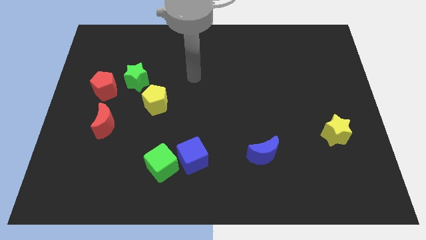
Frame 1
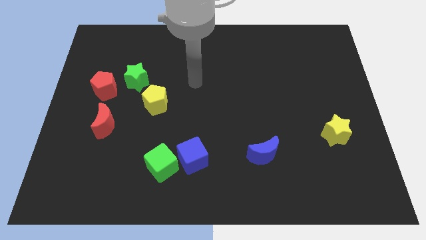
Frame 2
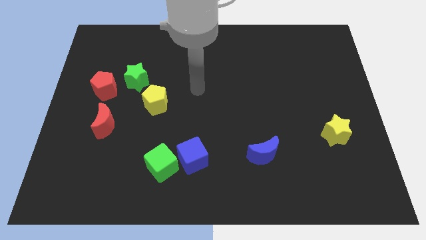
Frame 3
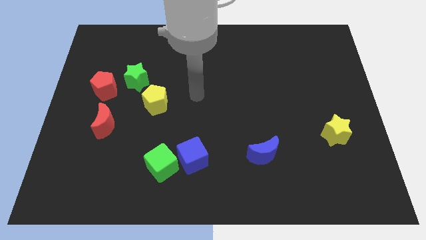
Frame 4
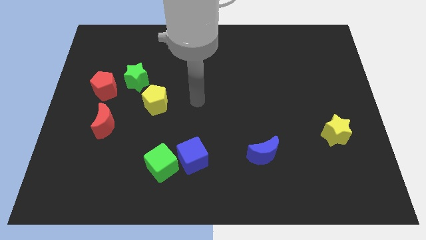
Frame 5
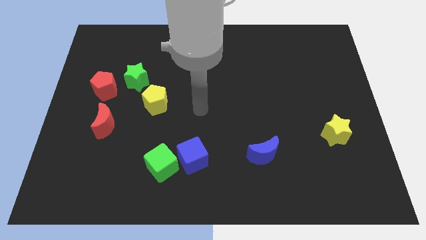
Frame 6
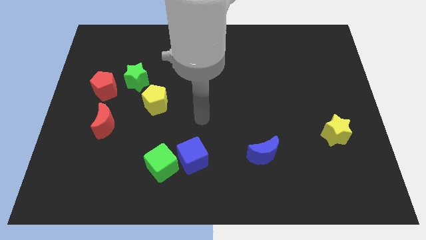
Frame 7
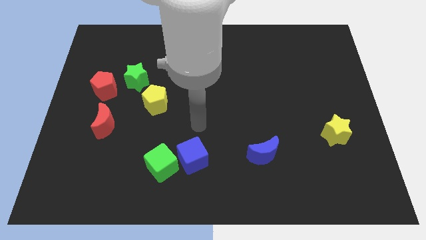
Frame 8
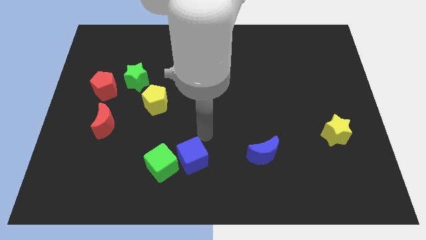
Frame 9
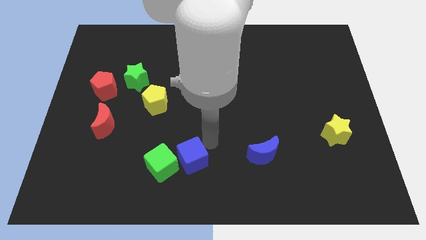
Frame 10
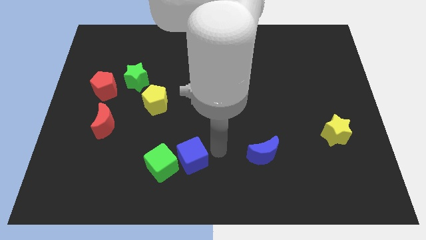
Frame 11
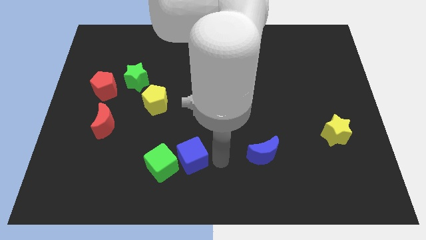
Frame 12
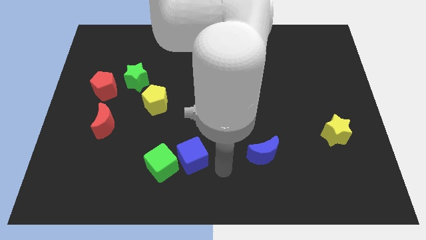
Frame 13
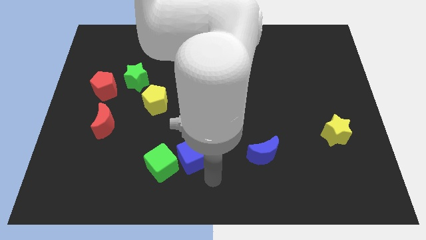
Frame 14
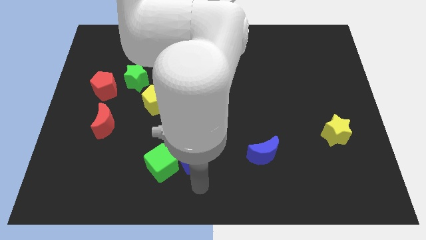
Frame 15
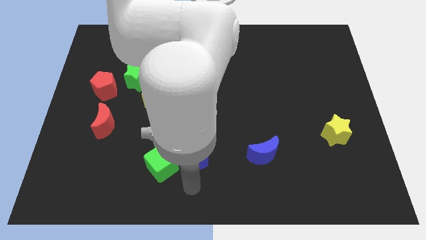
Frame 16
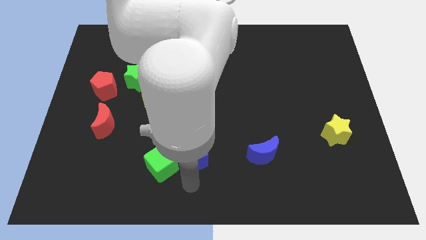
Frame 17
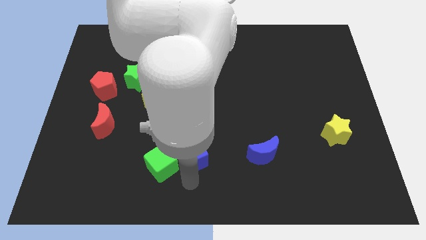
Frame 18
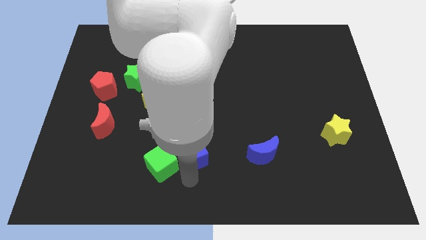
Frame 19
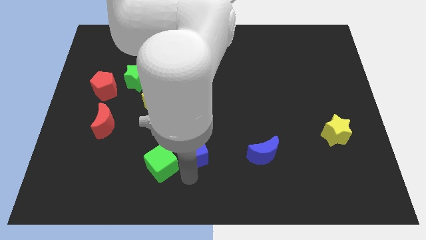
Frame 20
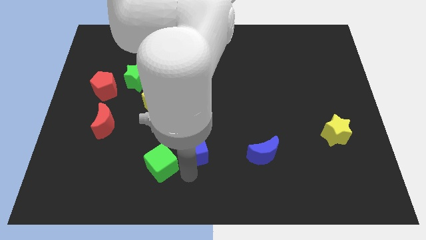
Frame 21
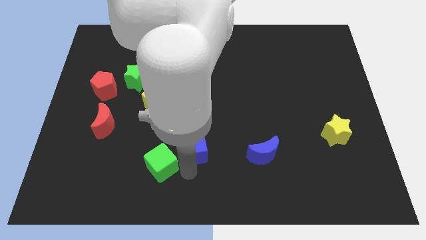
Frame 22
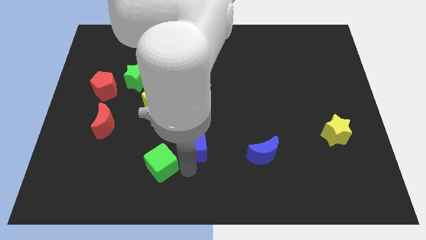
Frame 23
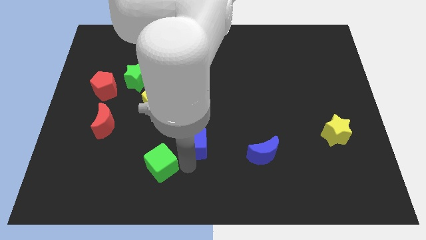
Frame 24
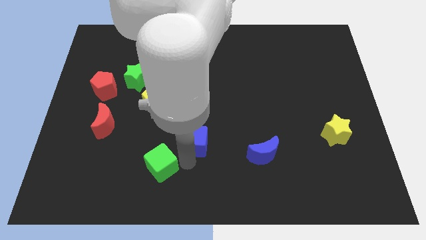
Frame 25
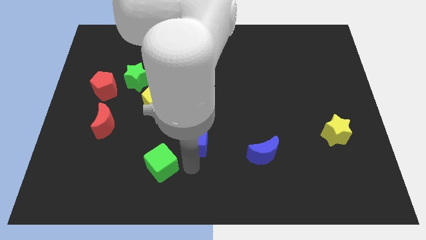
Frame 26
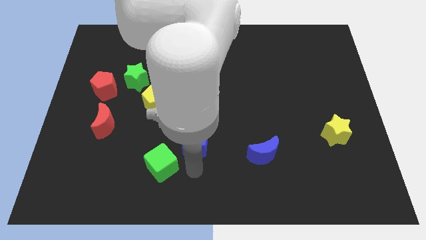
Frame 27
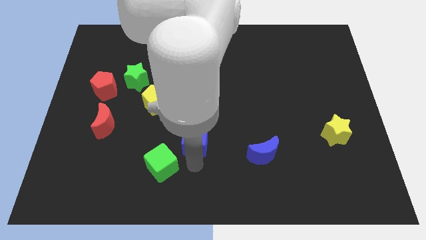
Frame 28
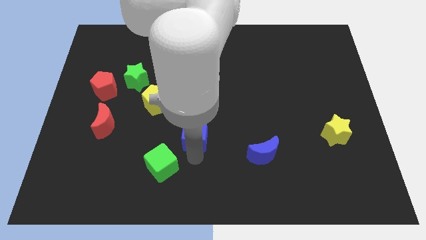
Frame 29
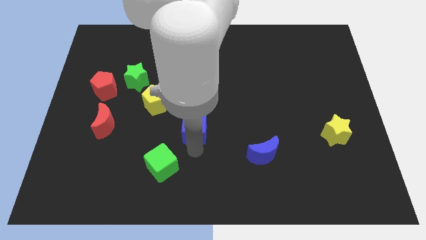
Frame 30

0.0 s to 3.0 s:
slightly push the blue cube up

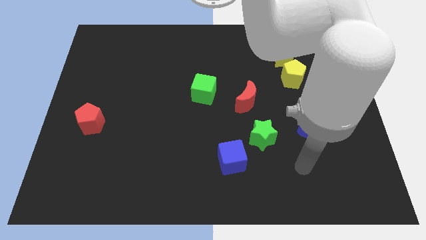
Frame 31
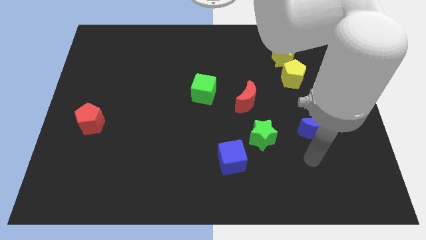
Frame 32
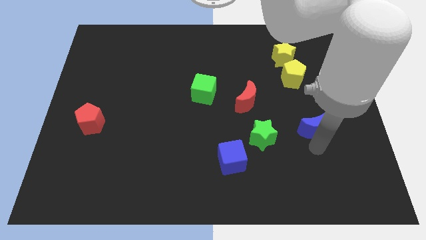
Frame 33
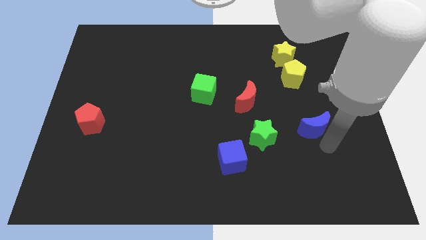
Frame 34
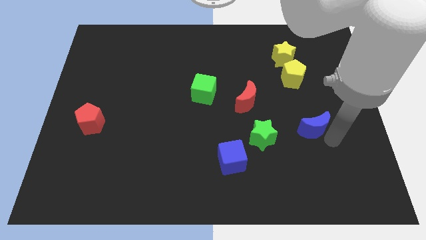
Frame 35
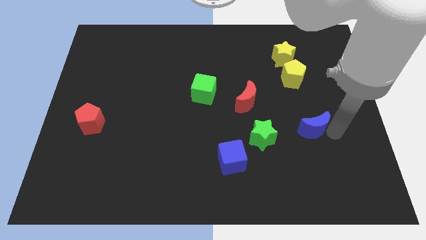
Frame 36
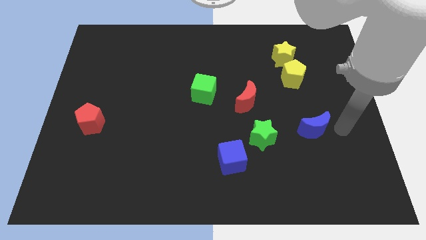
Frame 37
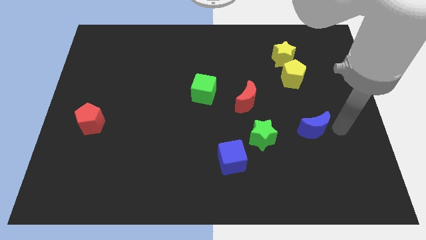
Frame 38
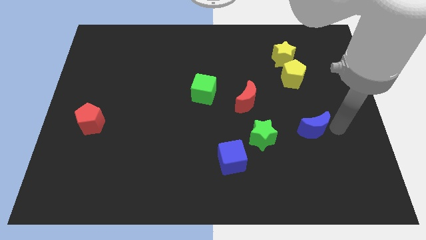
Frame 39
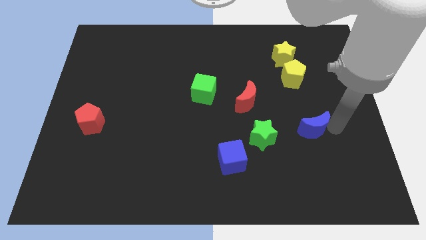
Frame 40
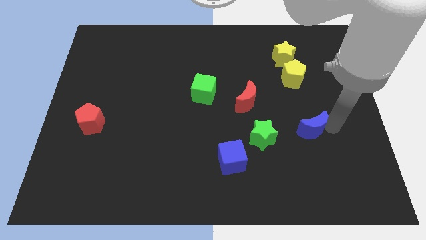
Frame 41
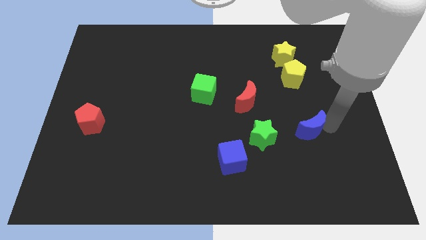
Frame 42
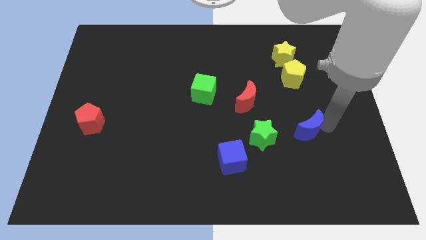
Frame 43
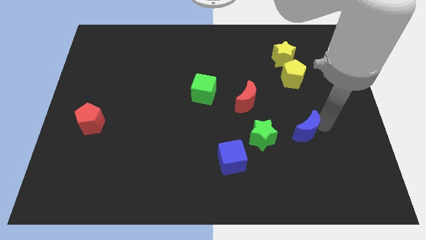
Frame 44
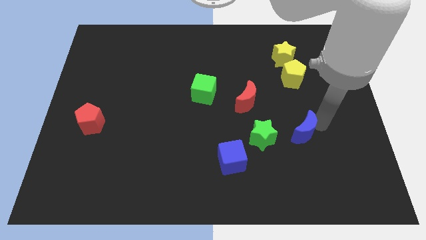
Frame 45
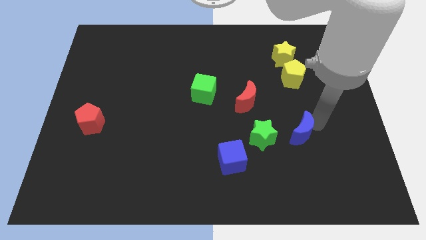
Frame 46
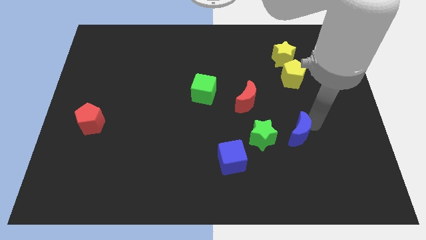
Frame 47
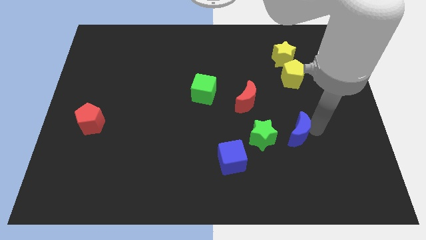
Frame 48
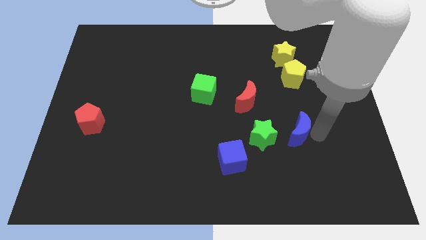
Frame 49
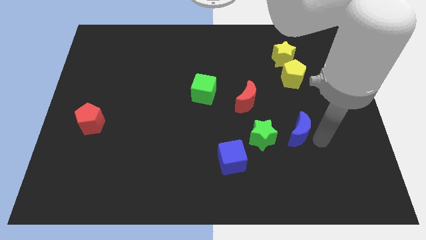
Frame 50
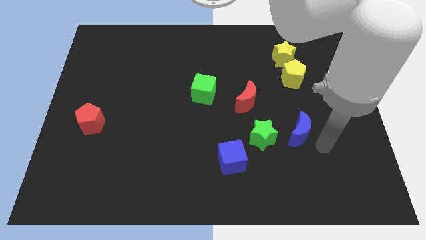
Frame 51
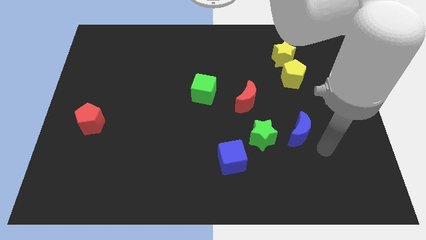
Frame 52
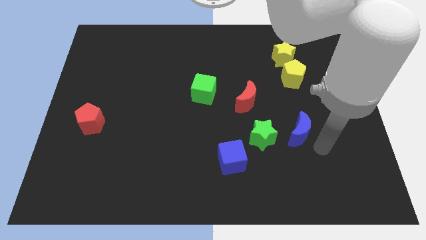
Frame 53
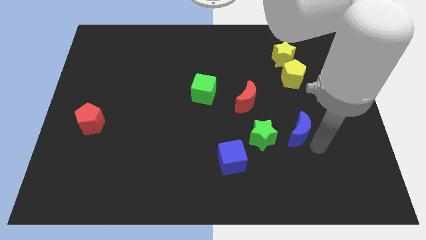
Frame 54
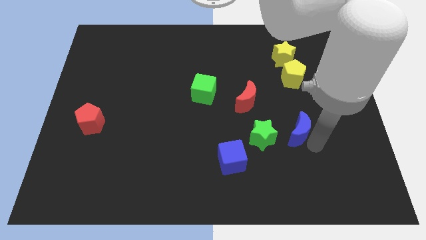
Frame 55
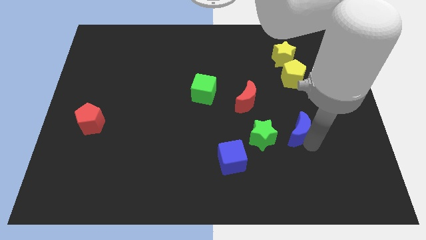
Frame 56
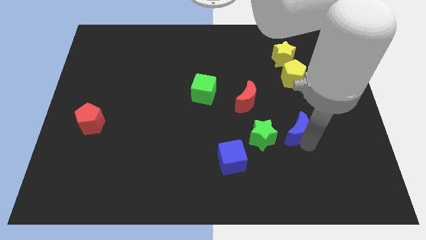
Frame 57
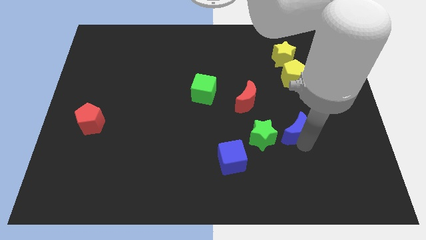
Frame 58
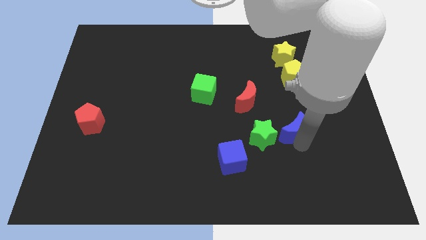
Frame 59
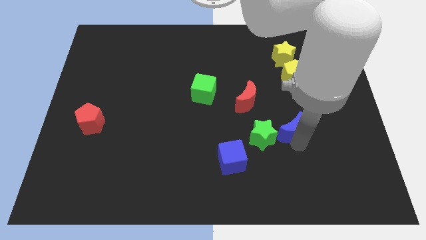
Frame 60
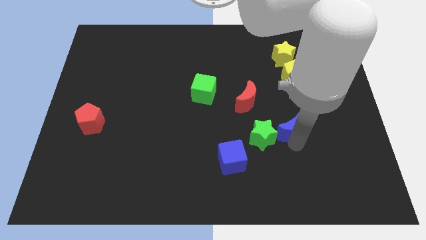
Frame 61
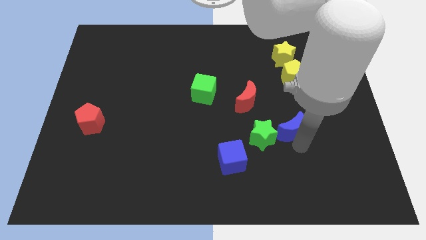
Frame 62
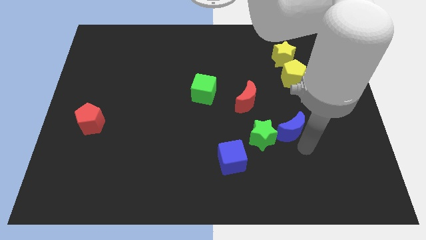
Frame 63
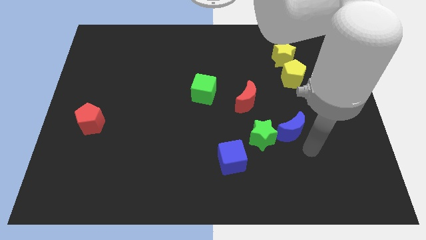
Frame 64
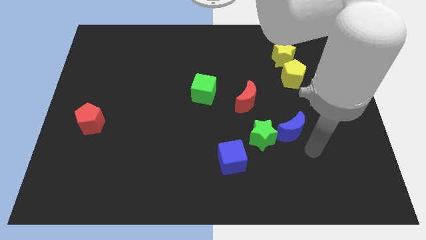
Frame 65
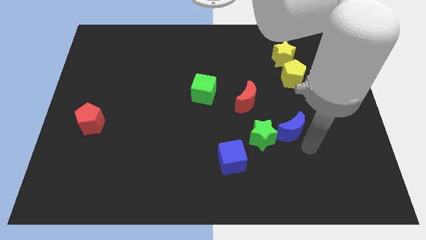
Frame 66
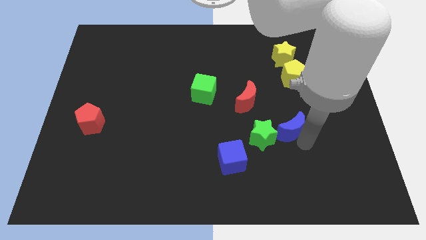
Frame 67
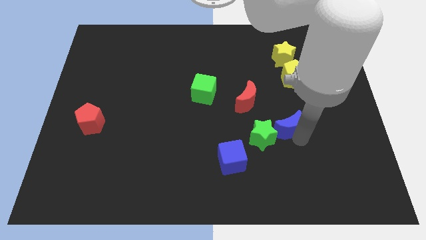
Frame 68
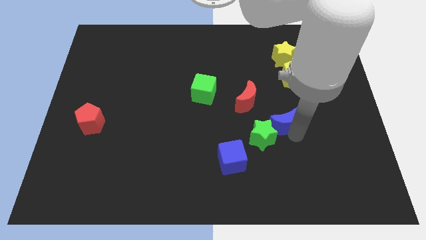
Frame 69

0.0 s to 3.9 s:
slide the blue moon left a bit

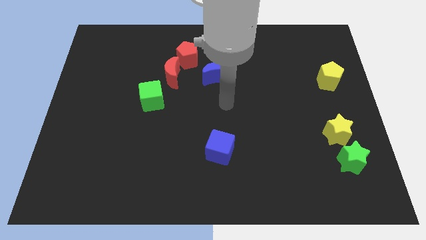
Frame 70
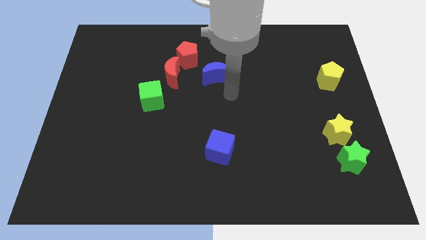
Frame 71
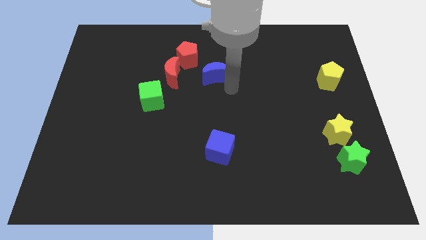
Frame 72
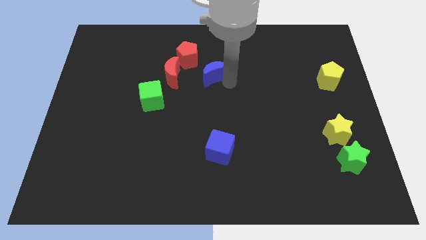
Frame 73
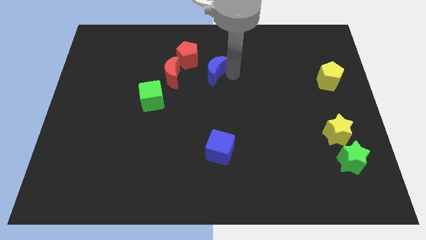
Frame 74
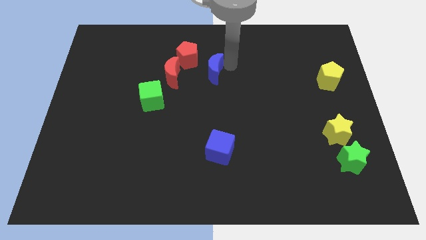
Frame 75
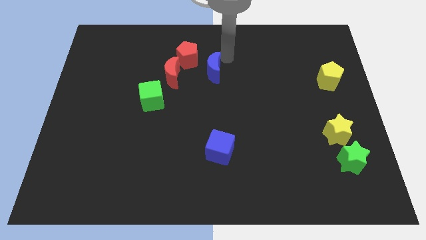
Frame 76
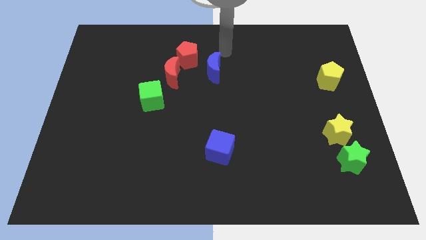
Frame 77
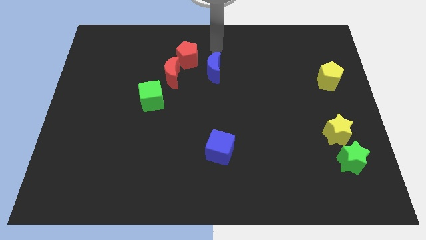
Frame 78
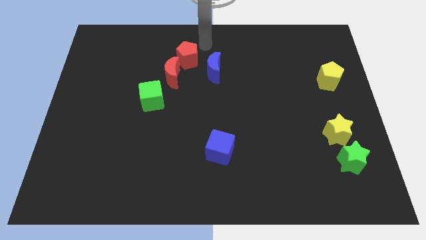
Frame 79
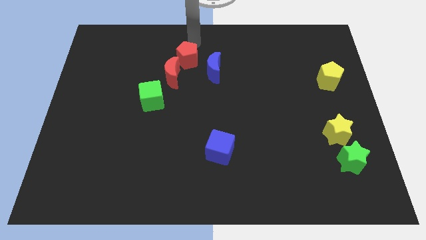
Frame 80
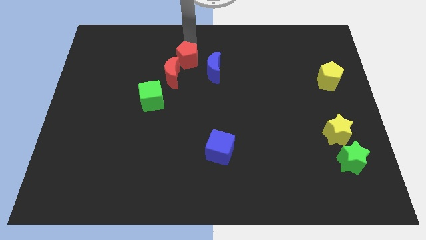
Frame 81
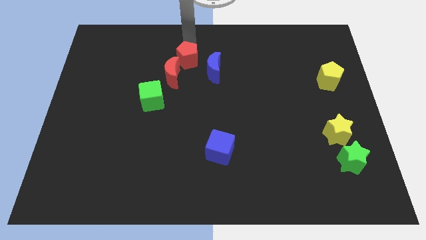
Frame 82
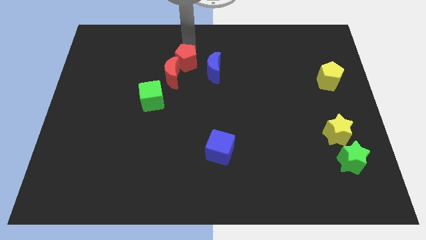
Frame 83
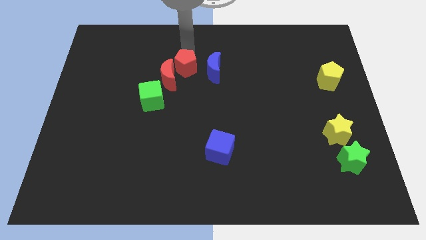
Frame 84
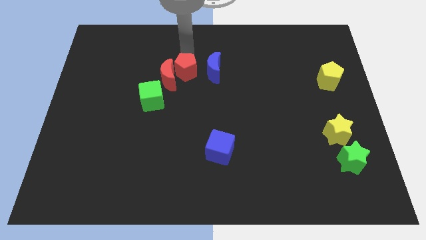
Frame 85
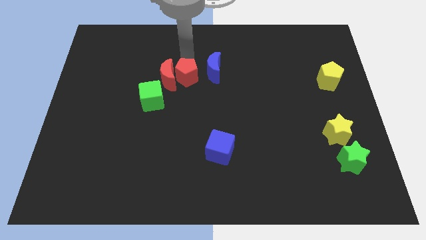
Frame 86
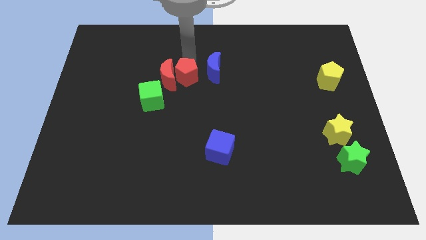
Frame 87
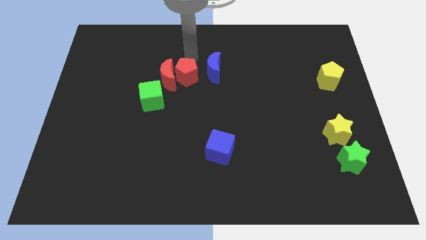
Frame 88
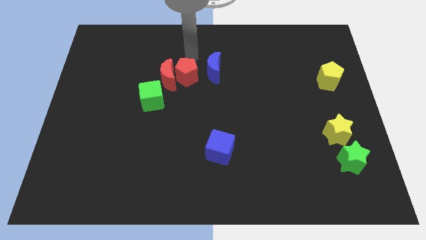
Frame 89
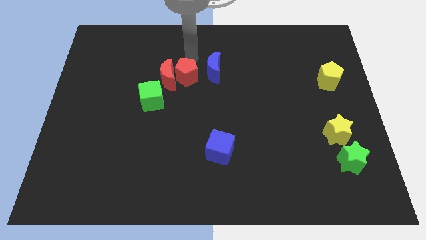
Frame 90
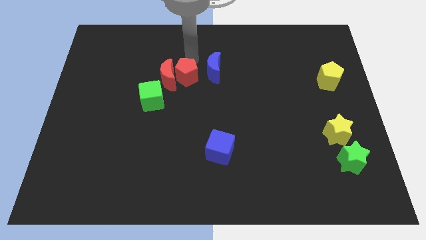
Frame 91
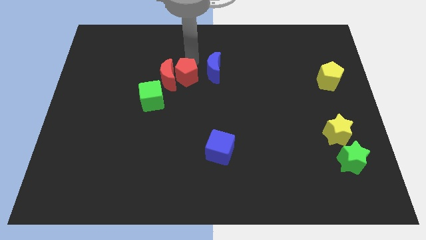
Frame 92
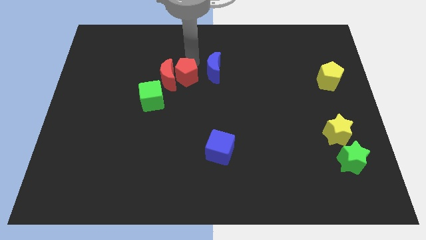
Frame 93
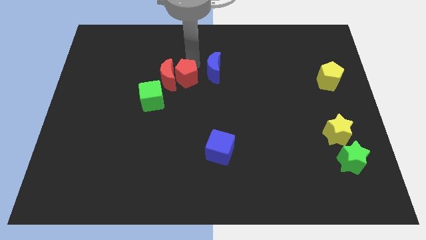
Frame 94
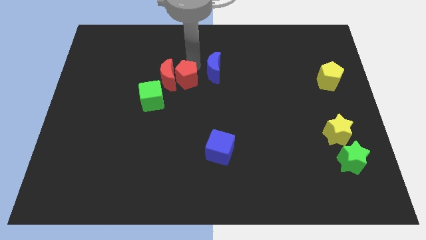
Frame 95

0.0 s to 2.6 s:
push the red pentagon slightly down
